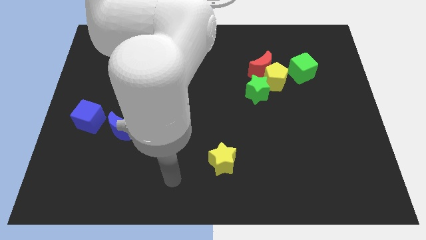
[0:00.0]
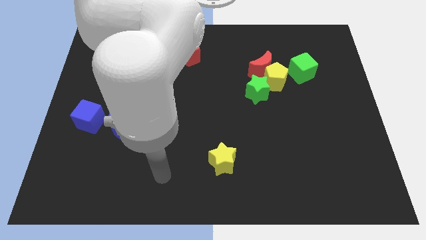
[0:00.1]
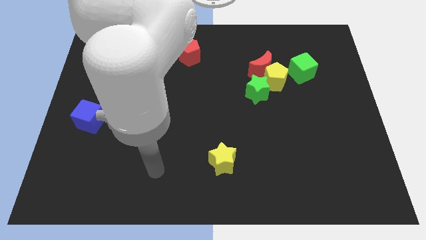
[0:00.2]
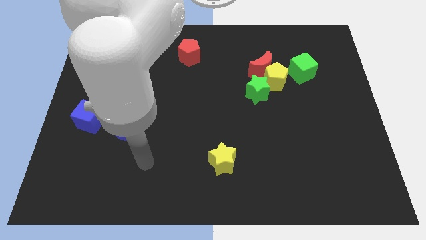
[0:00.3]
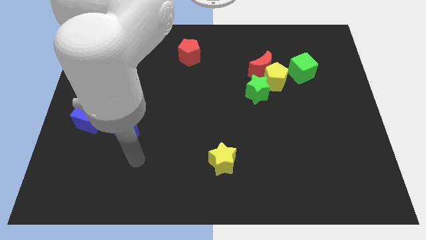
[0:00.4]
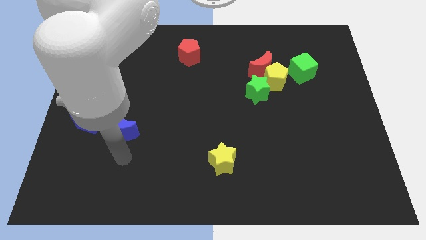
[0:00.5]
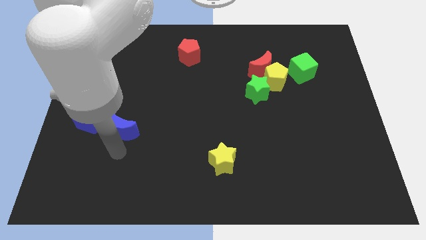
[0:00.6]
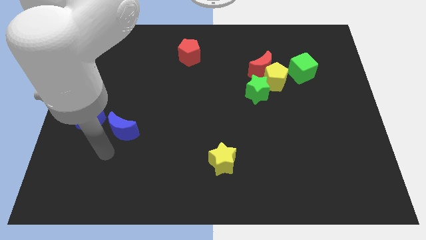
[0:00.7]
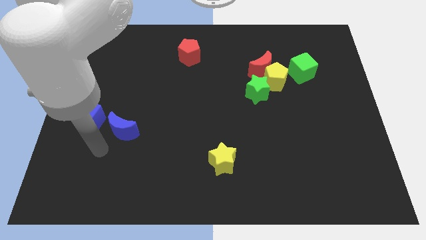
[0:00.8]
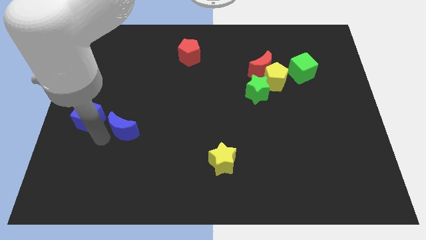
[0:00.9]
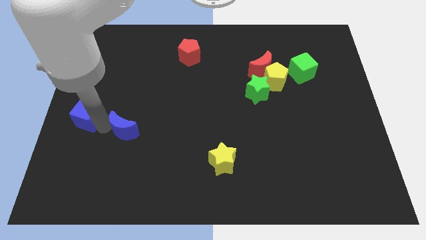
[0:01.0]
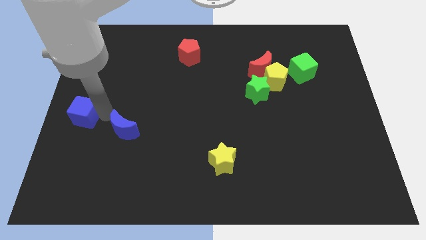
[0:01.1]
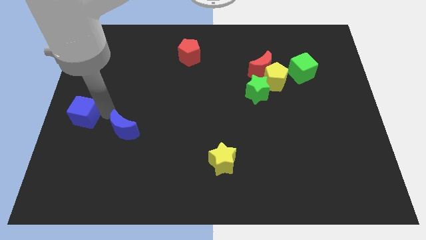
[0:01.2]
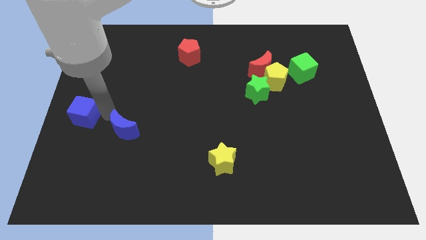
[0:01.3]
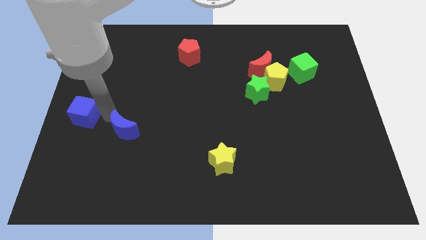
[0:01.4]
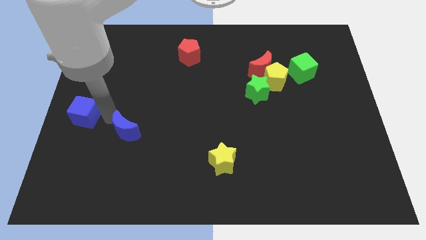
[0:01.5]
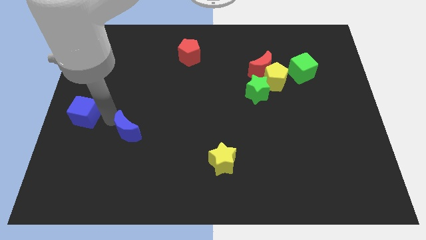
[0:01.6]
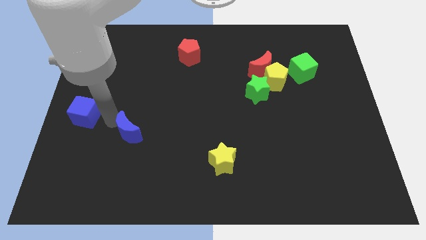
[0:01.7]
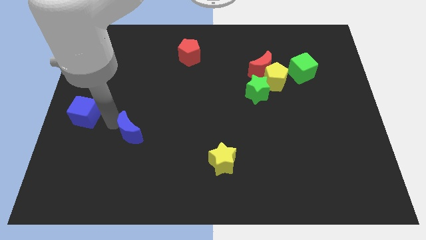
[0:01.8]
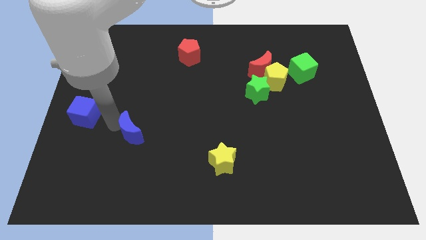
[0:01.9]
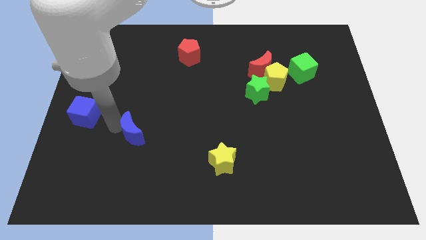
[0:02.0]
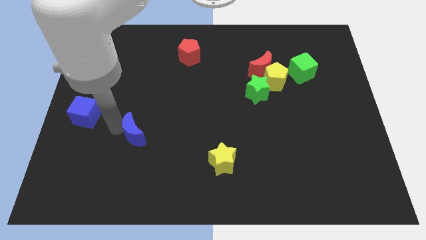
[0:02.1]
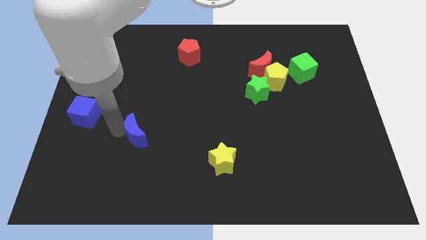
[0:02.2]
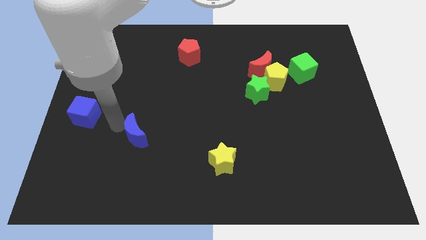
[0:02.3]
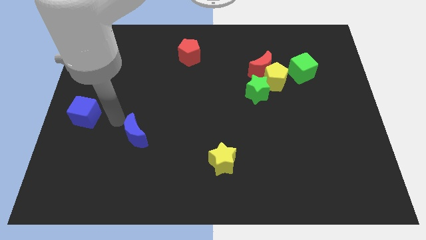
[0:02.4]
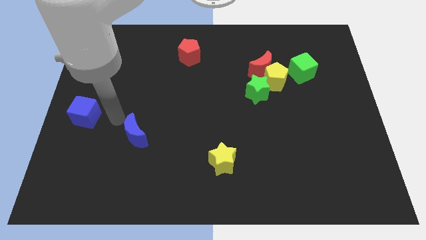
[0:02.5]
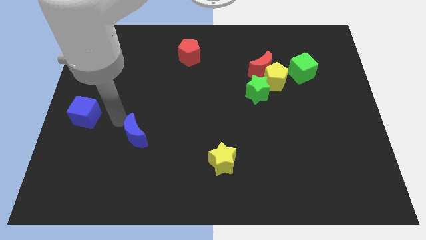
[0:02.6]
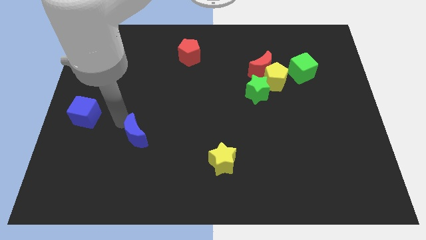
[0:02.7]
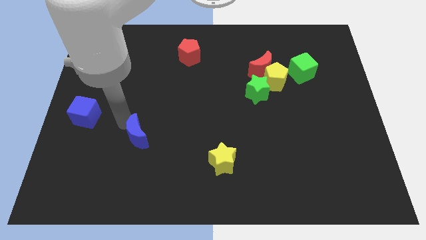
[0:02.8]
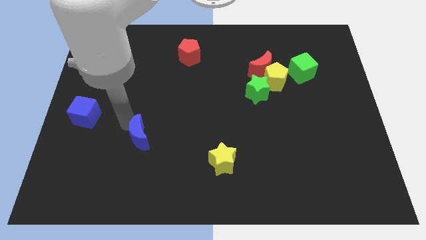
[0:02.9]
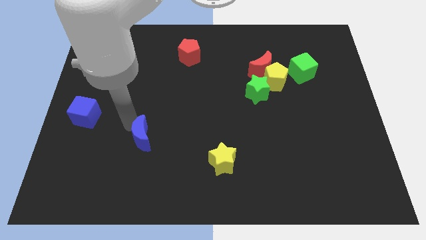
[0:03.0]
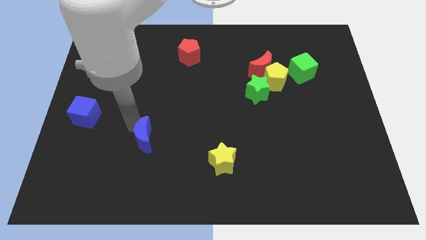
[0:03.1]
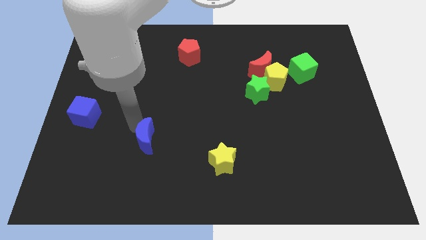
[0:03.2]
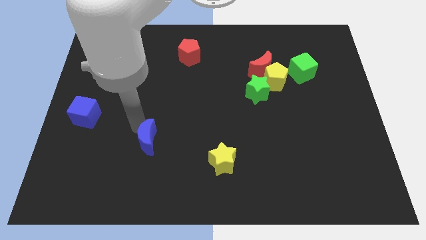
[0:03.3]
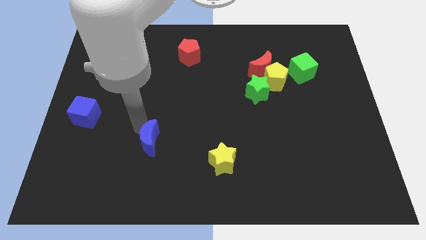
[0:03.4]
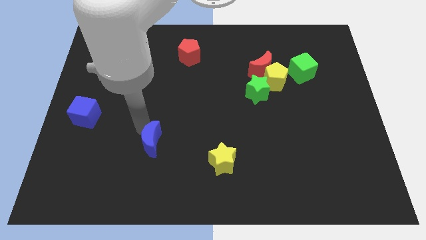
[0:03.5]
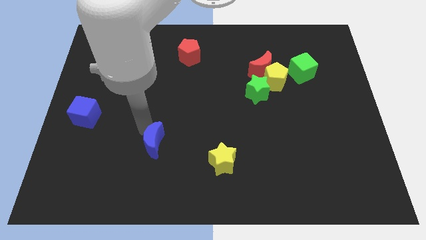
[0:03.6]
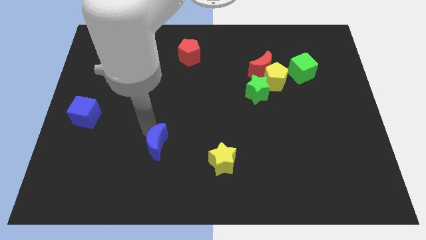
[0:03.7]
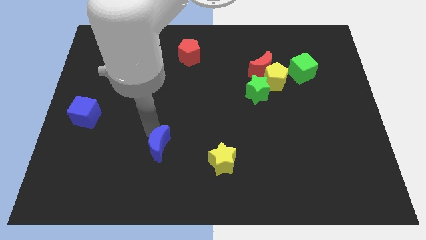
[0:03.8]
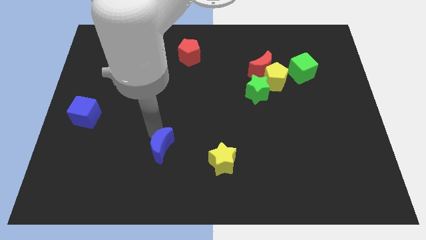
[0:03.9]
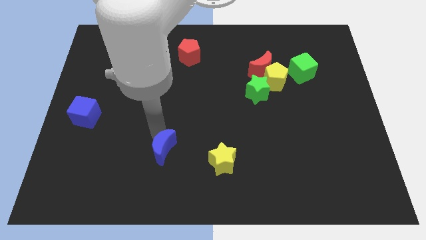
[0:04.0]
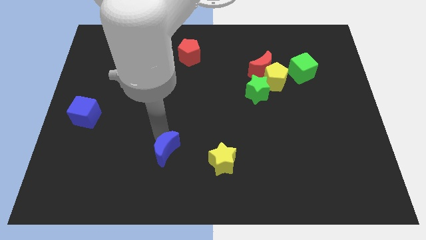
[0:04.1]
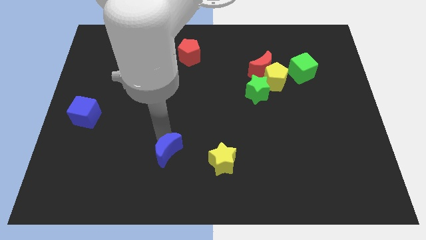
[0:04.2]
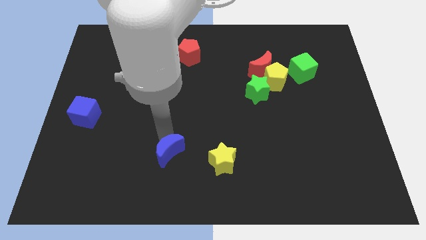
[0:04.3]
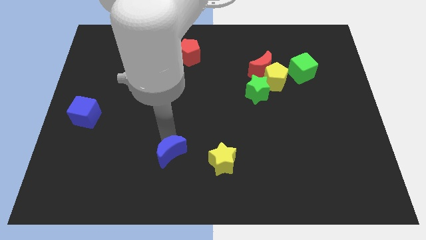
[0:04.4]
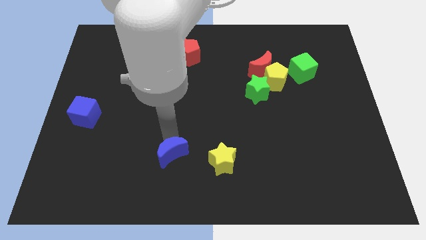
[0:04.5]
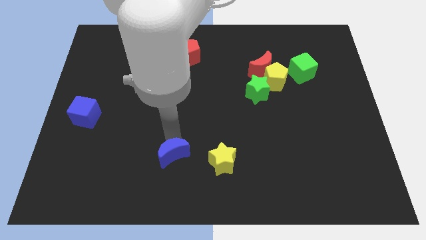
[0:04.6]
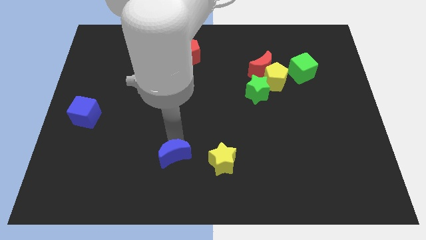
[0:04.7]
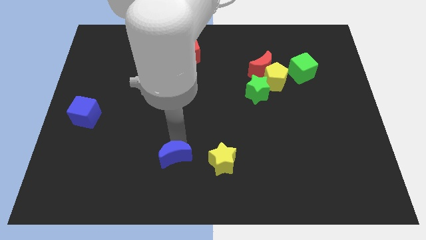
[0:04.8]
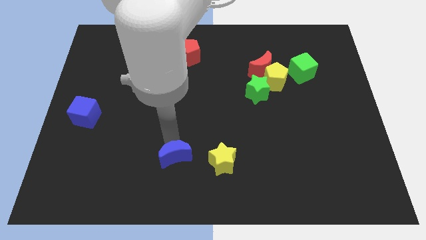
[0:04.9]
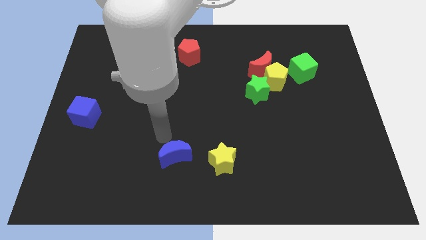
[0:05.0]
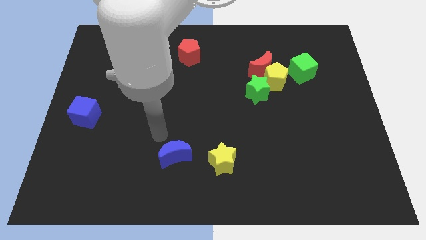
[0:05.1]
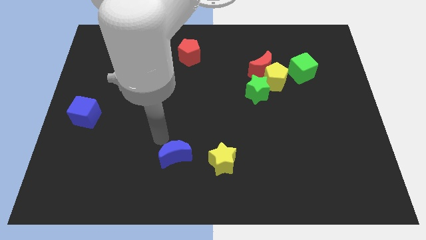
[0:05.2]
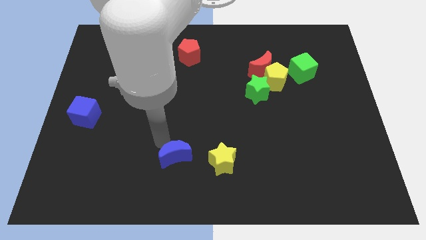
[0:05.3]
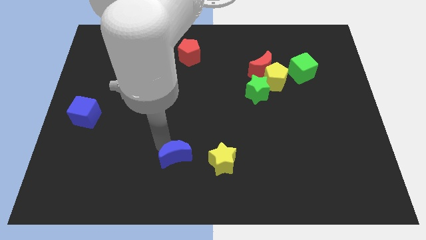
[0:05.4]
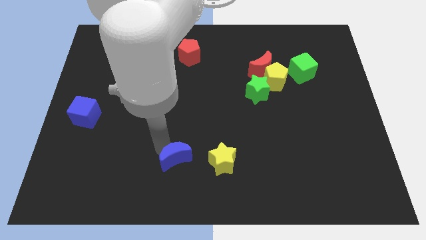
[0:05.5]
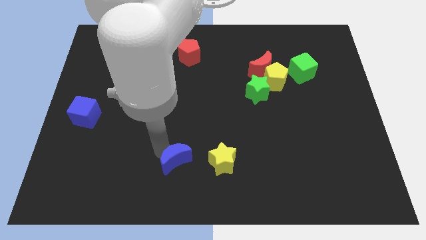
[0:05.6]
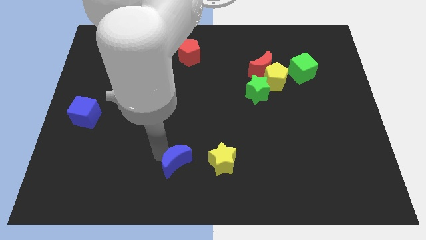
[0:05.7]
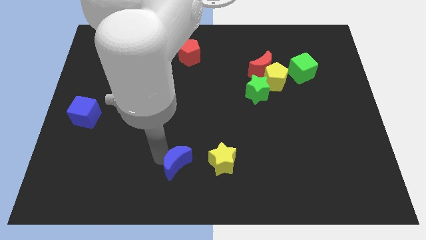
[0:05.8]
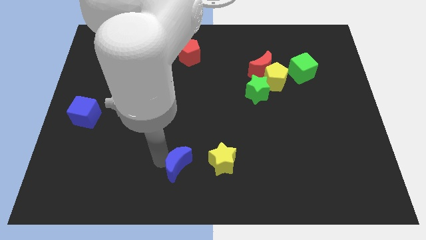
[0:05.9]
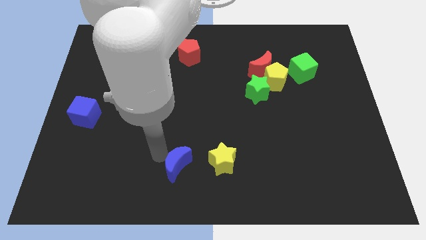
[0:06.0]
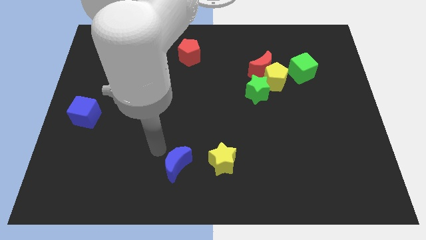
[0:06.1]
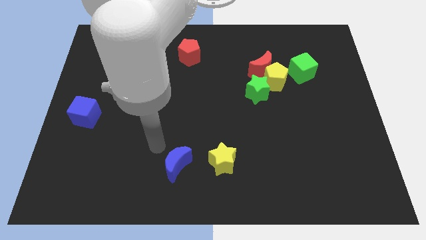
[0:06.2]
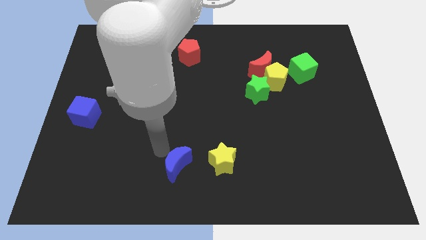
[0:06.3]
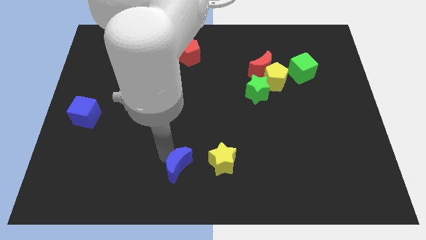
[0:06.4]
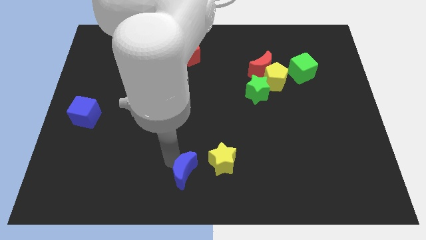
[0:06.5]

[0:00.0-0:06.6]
put the blue moon to the bottom left side of the yellow star

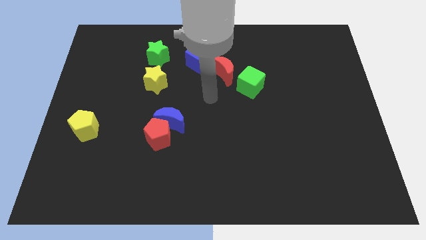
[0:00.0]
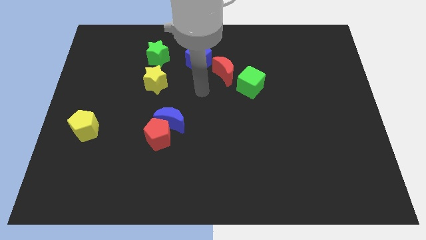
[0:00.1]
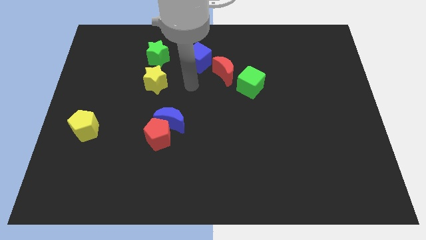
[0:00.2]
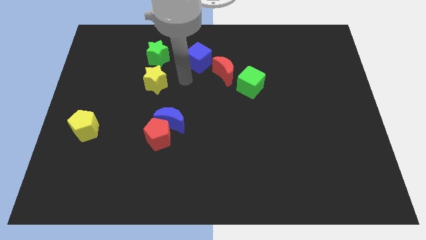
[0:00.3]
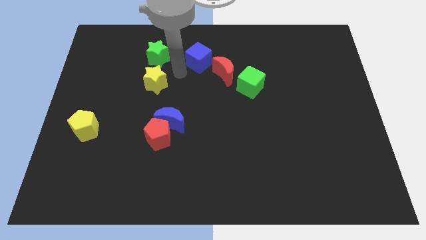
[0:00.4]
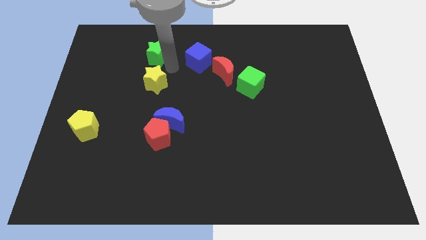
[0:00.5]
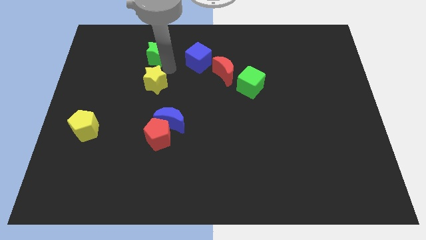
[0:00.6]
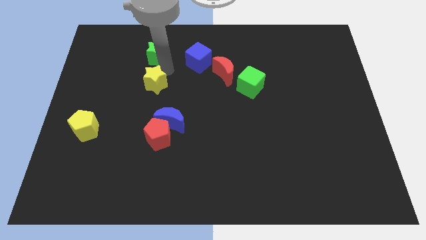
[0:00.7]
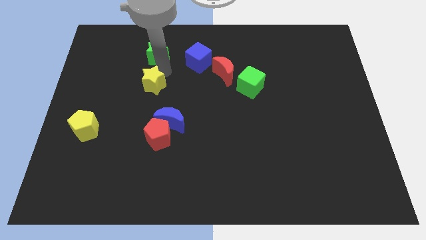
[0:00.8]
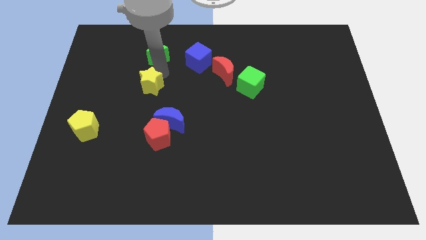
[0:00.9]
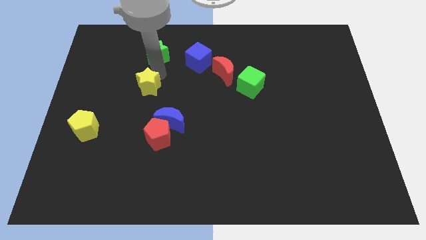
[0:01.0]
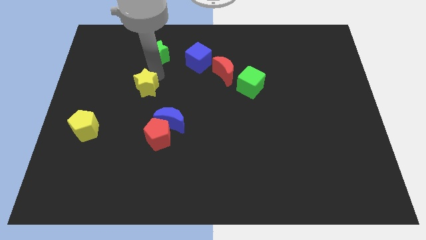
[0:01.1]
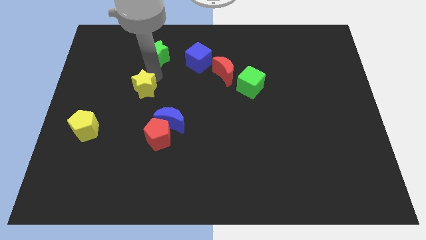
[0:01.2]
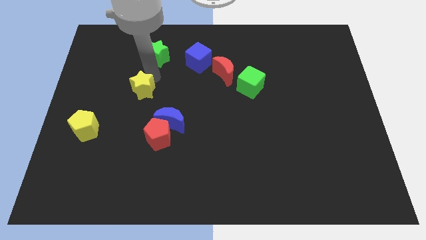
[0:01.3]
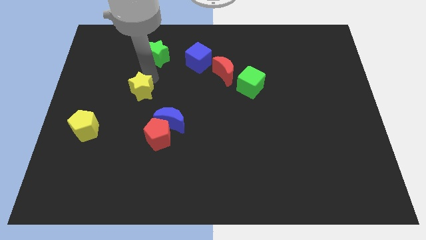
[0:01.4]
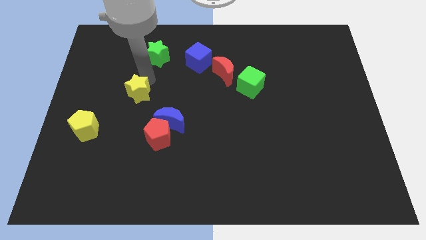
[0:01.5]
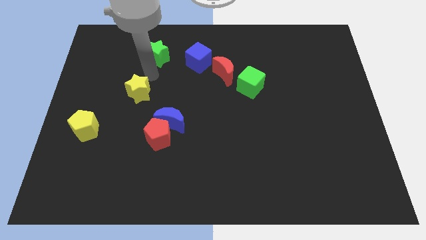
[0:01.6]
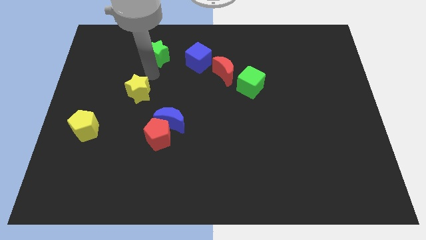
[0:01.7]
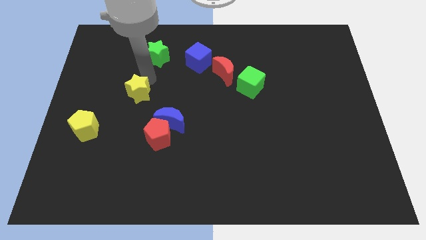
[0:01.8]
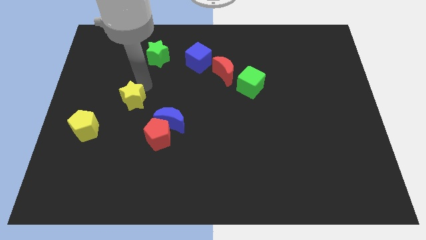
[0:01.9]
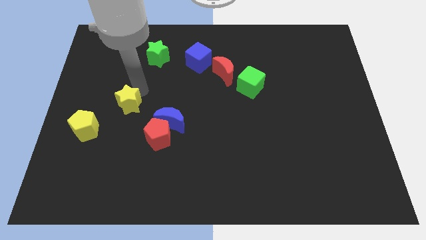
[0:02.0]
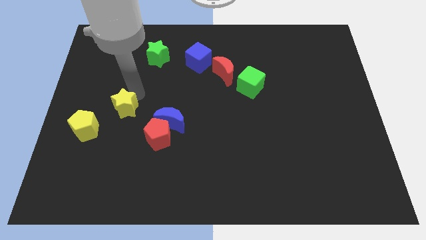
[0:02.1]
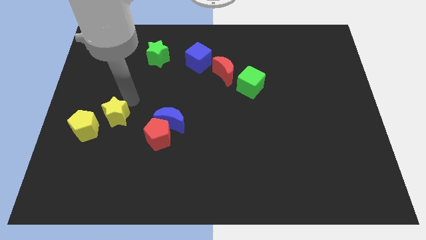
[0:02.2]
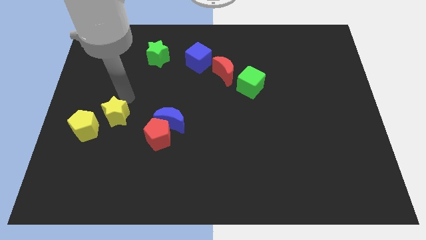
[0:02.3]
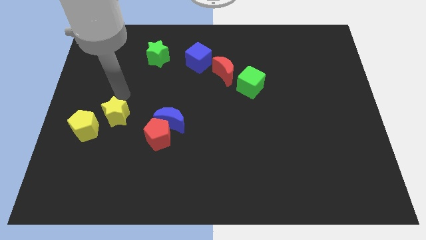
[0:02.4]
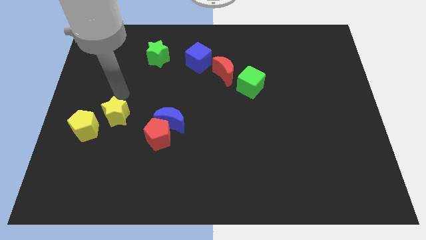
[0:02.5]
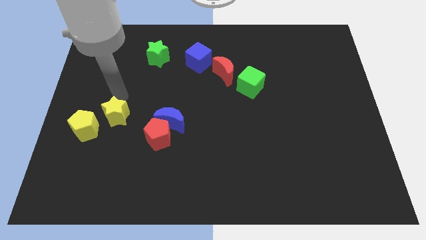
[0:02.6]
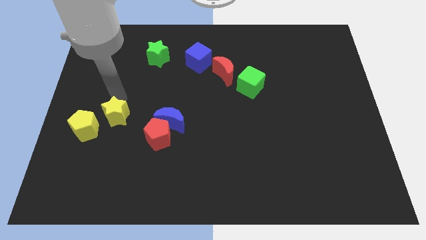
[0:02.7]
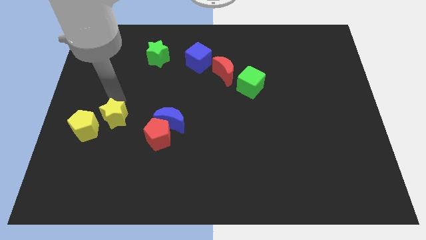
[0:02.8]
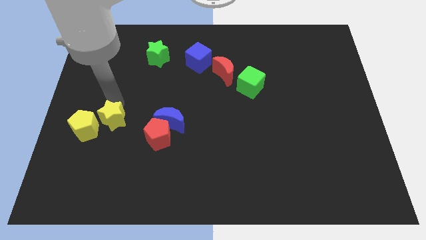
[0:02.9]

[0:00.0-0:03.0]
slide the yellow star to the left of the red pentagon
